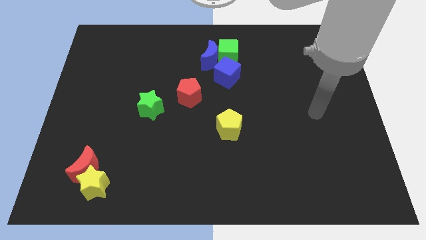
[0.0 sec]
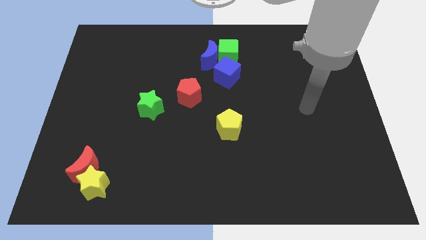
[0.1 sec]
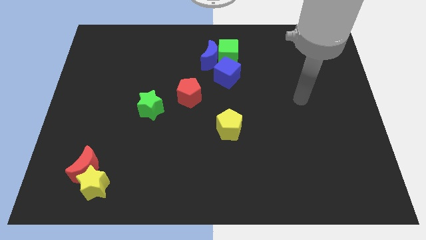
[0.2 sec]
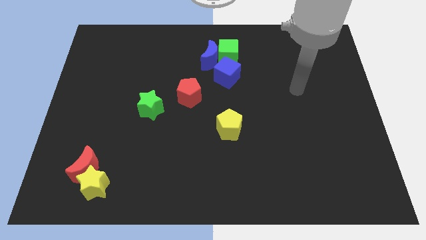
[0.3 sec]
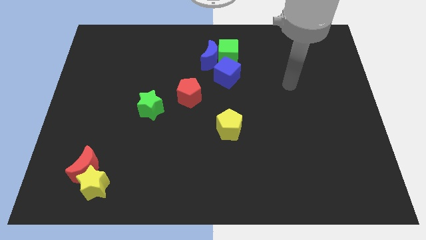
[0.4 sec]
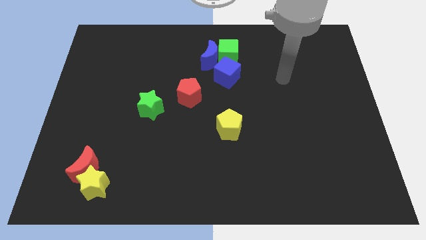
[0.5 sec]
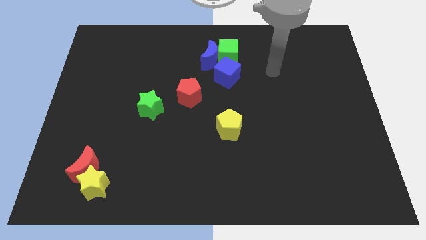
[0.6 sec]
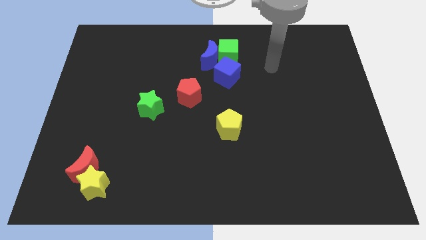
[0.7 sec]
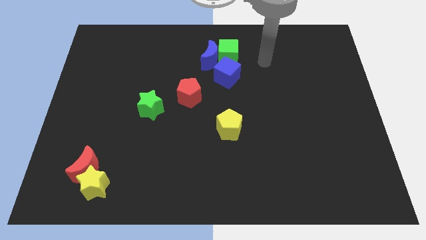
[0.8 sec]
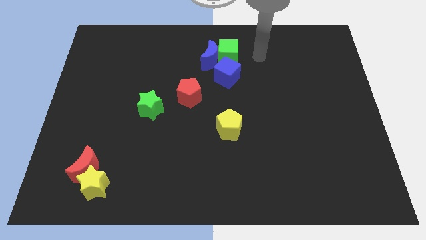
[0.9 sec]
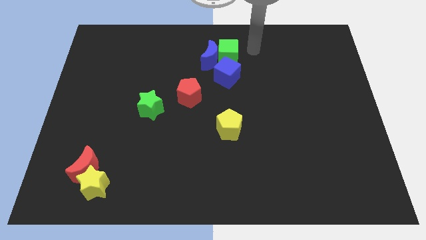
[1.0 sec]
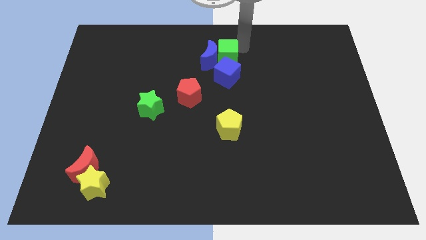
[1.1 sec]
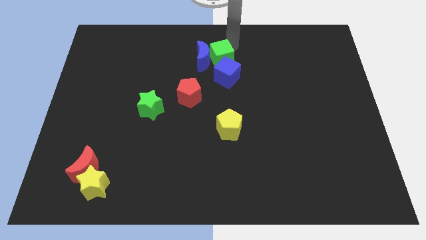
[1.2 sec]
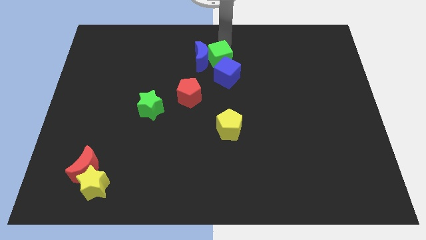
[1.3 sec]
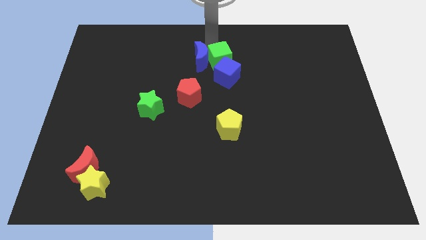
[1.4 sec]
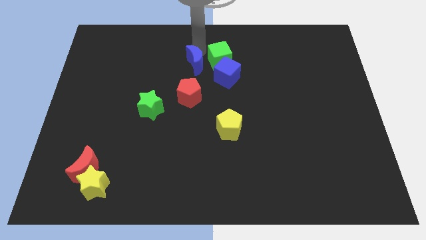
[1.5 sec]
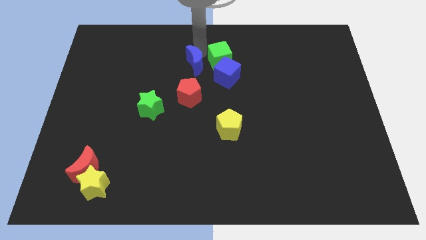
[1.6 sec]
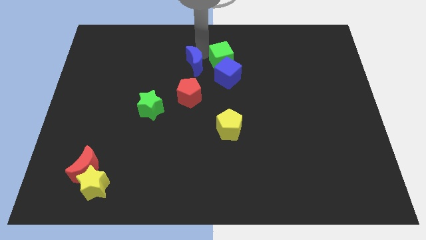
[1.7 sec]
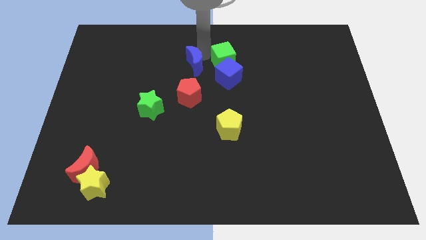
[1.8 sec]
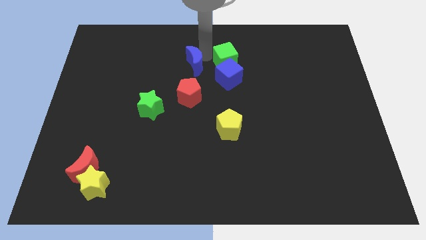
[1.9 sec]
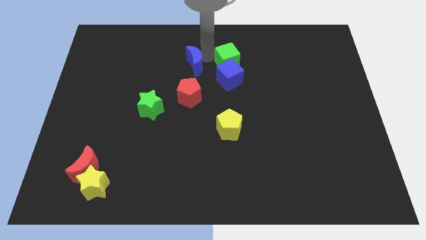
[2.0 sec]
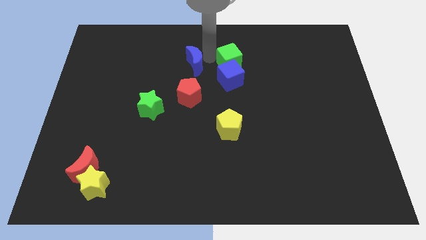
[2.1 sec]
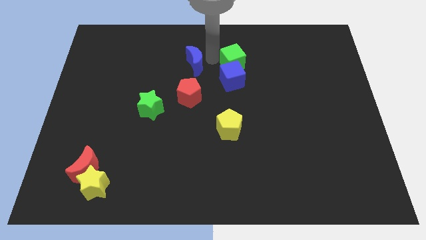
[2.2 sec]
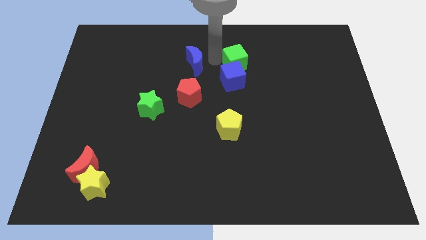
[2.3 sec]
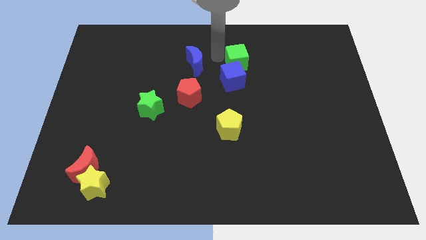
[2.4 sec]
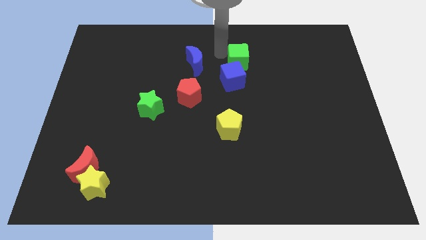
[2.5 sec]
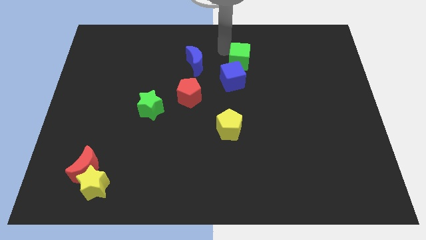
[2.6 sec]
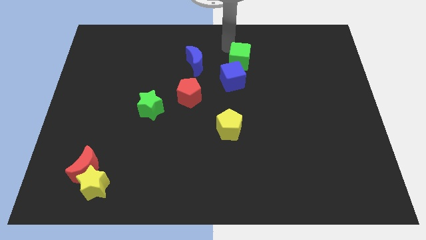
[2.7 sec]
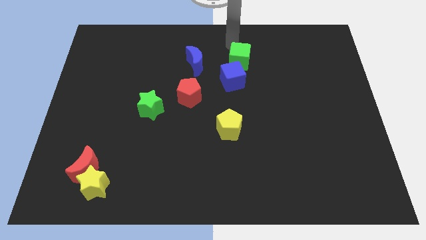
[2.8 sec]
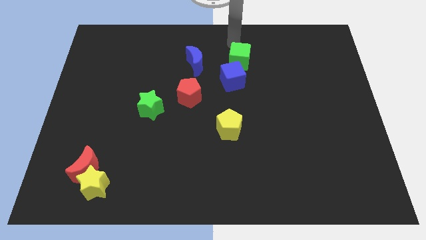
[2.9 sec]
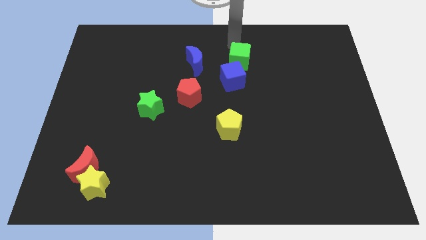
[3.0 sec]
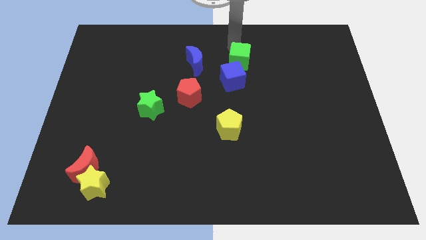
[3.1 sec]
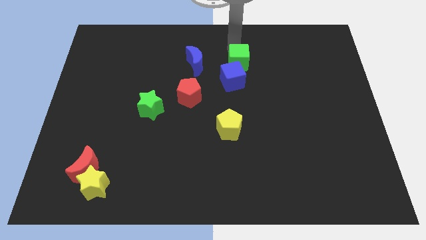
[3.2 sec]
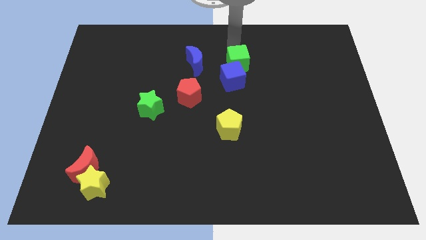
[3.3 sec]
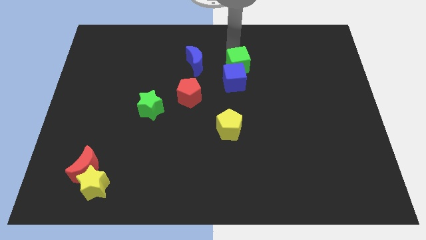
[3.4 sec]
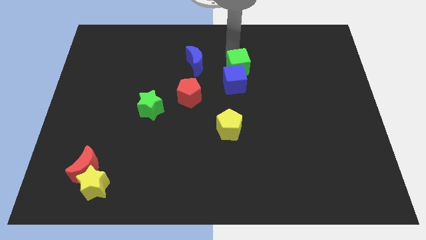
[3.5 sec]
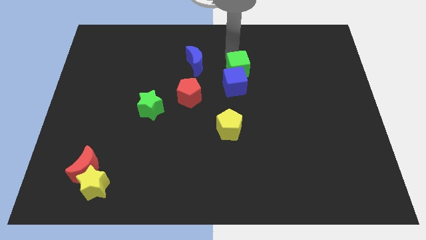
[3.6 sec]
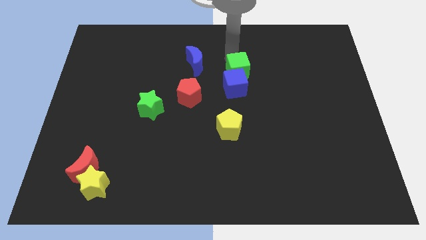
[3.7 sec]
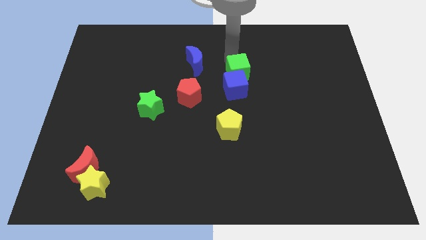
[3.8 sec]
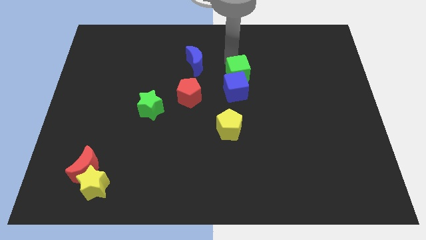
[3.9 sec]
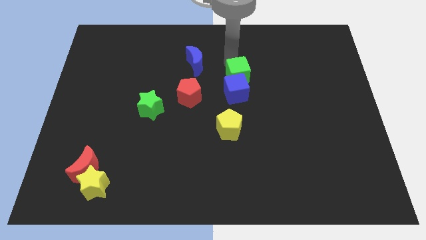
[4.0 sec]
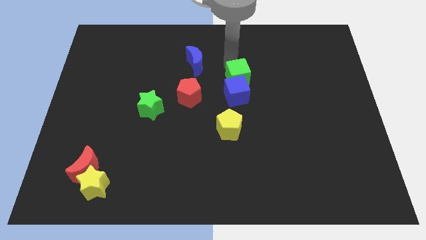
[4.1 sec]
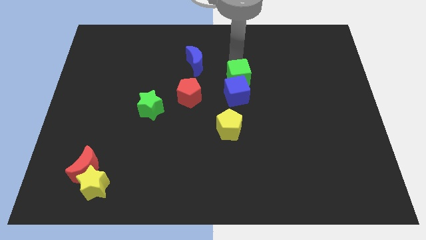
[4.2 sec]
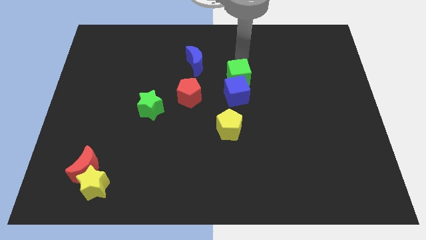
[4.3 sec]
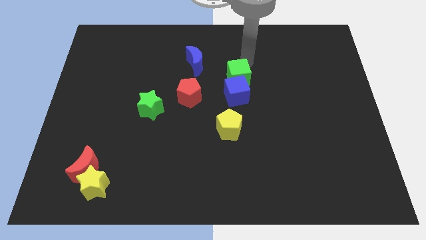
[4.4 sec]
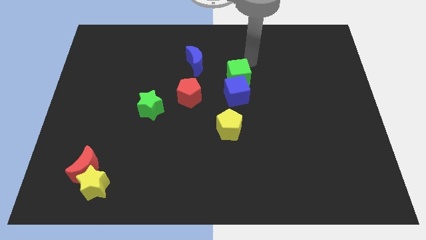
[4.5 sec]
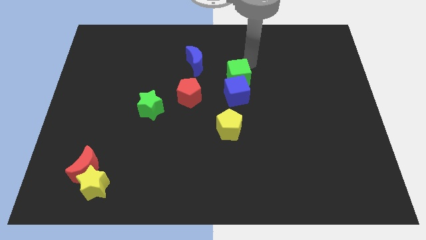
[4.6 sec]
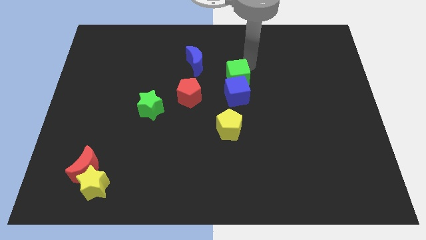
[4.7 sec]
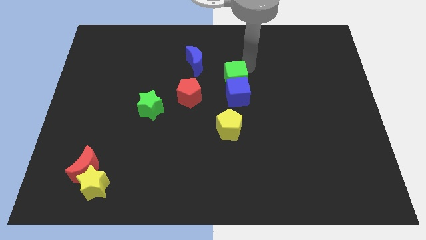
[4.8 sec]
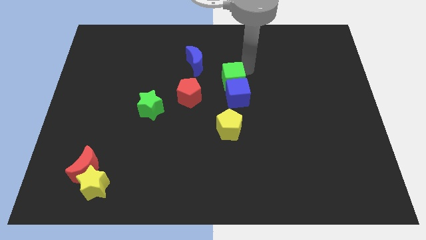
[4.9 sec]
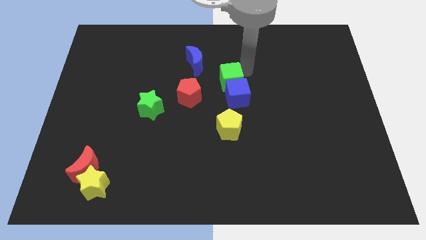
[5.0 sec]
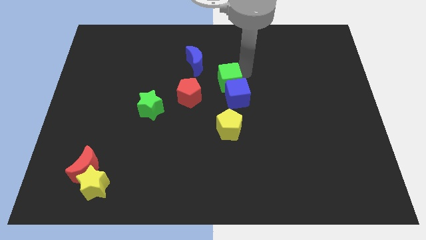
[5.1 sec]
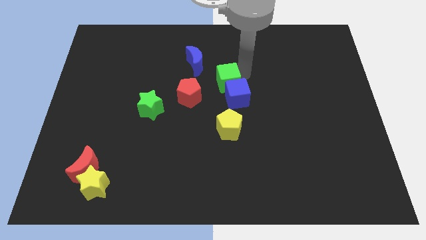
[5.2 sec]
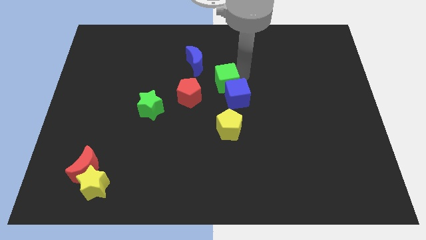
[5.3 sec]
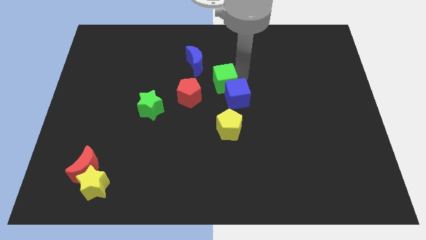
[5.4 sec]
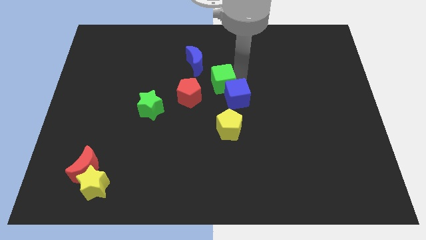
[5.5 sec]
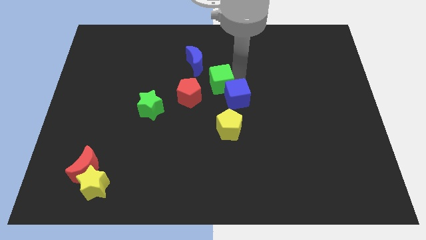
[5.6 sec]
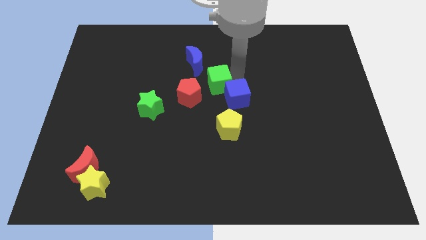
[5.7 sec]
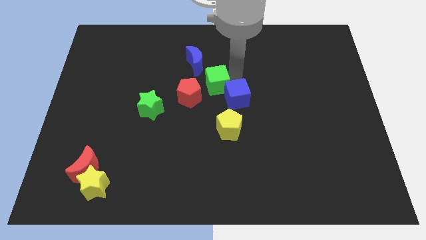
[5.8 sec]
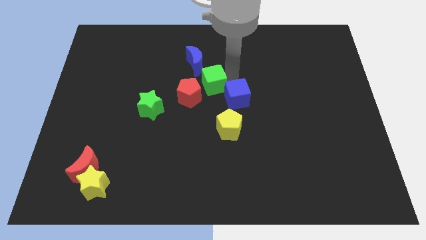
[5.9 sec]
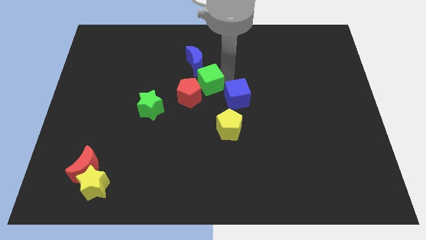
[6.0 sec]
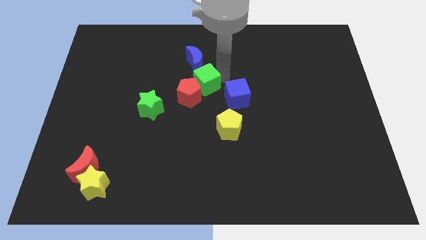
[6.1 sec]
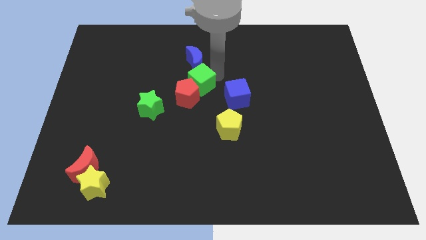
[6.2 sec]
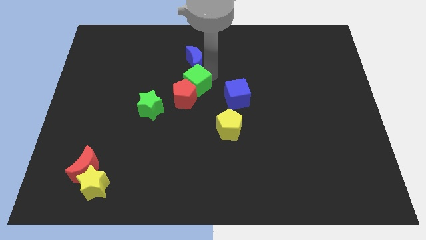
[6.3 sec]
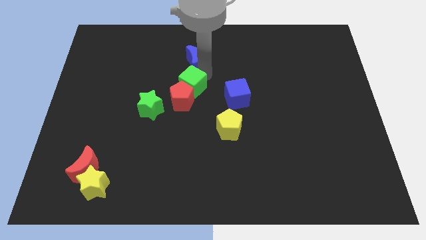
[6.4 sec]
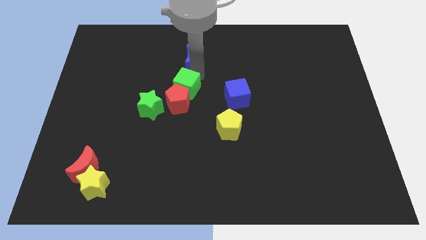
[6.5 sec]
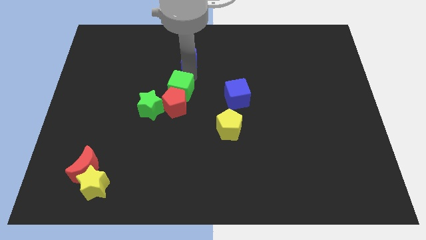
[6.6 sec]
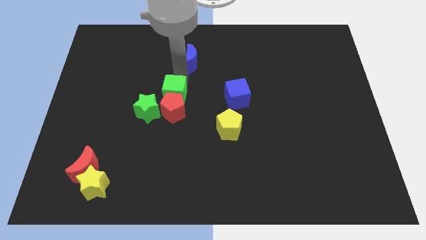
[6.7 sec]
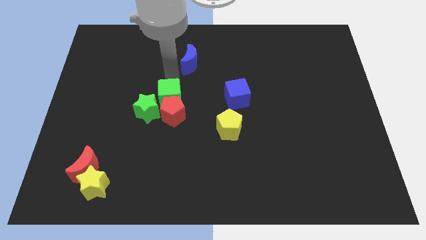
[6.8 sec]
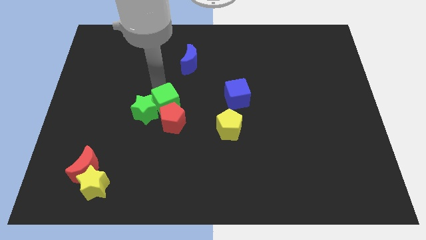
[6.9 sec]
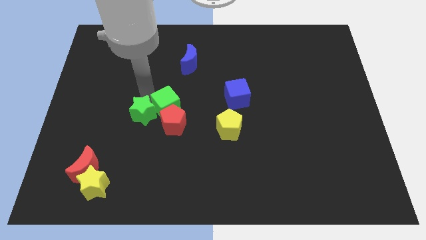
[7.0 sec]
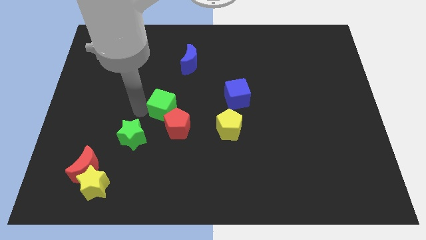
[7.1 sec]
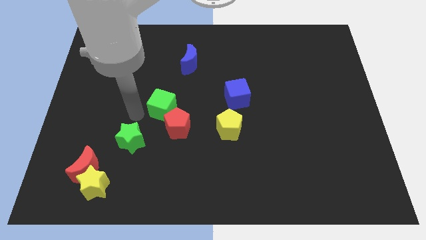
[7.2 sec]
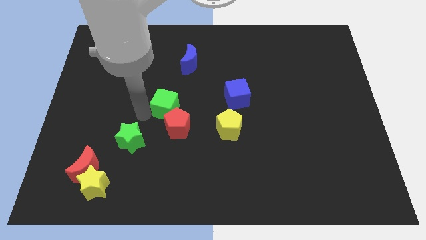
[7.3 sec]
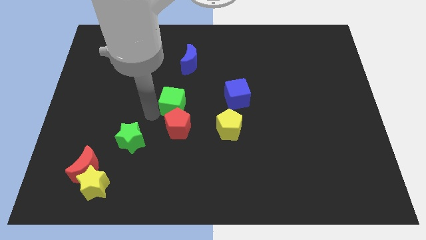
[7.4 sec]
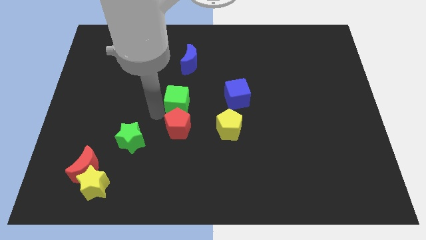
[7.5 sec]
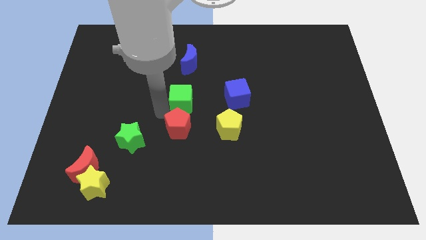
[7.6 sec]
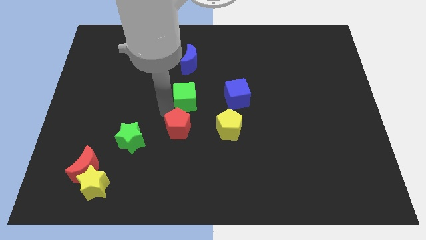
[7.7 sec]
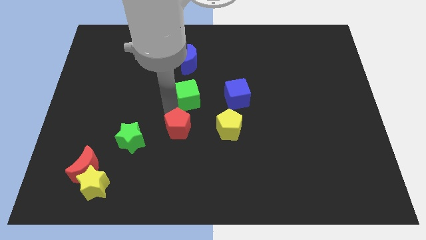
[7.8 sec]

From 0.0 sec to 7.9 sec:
move the green cube diagonally up and to the left of the yellow pentagon
